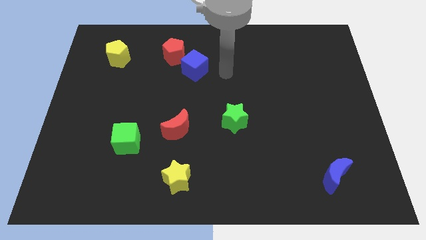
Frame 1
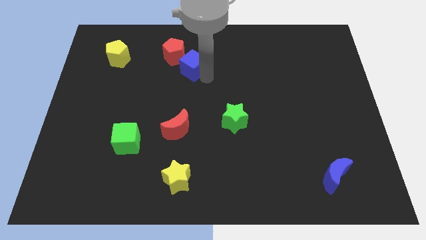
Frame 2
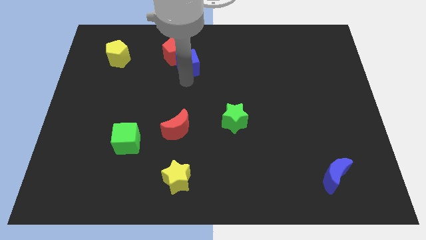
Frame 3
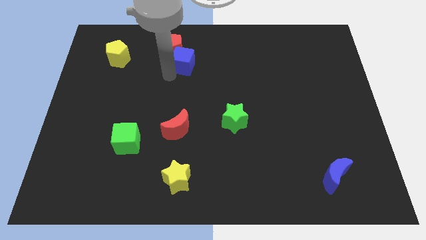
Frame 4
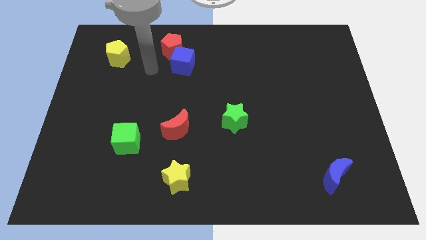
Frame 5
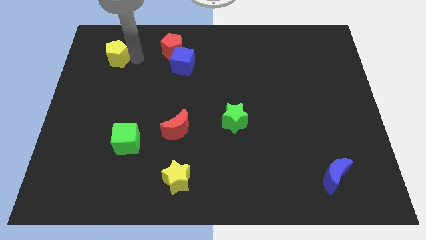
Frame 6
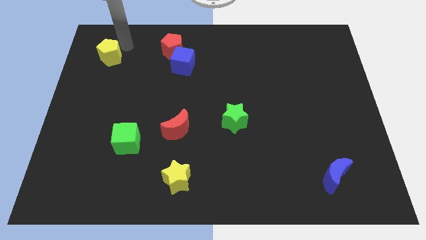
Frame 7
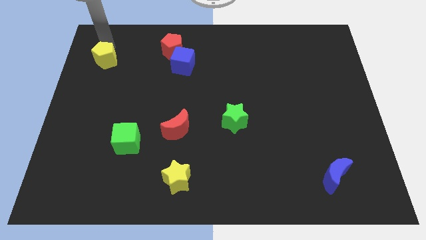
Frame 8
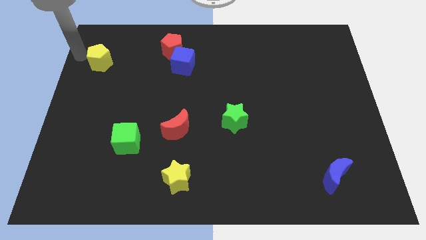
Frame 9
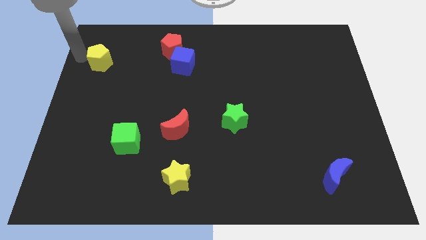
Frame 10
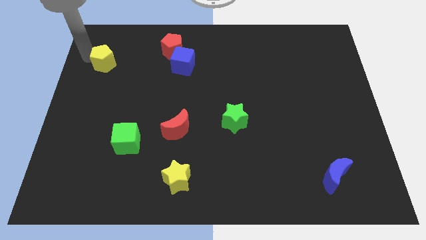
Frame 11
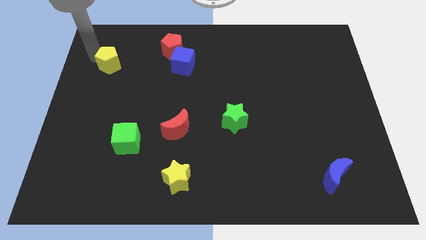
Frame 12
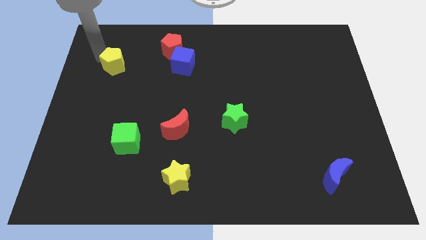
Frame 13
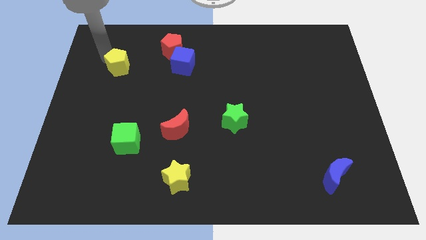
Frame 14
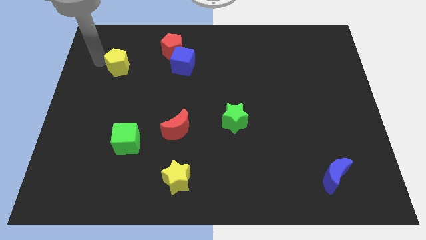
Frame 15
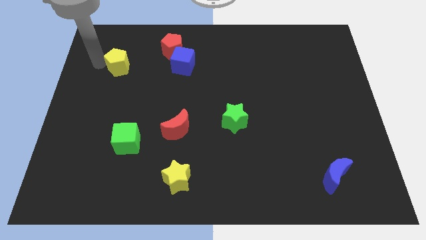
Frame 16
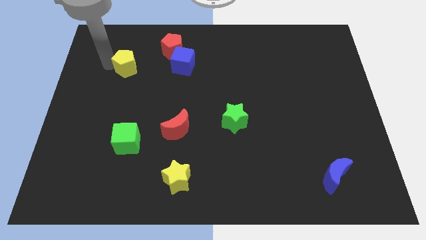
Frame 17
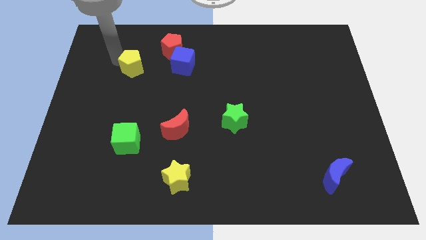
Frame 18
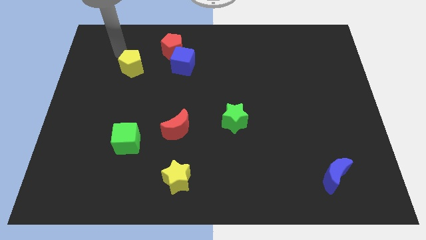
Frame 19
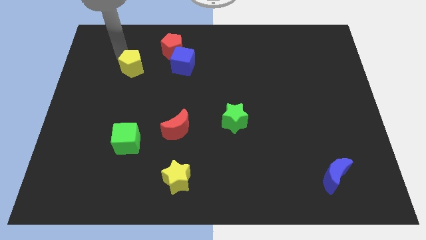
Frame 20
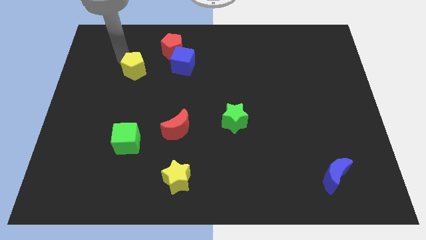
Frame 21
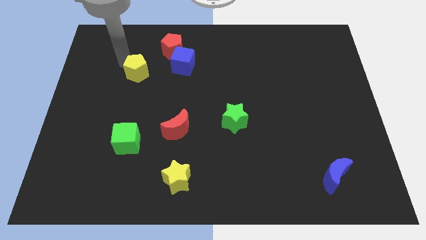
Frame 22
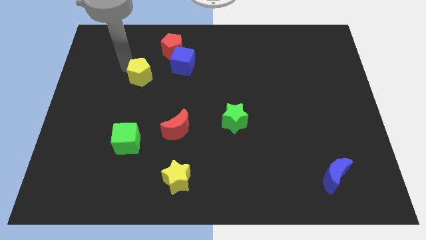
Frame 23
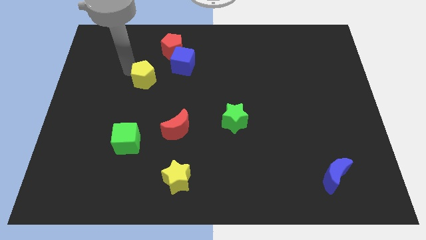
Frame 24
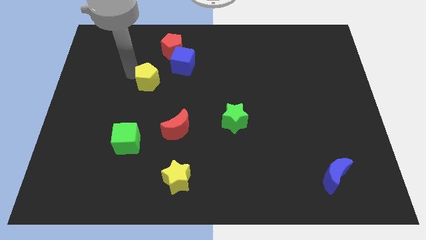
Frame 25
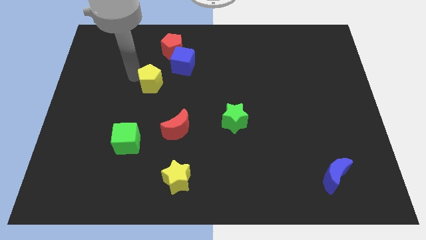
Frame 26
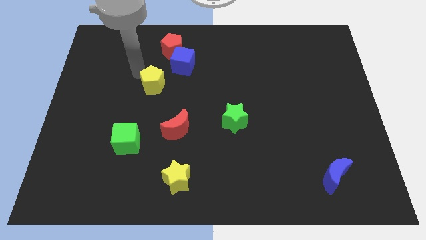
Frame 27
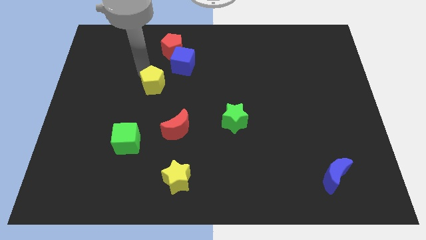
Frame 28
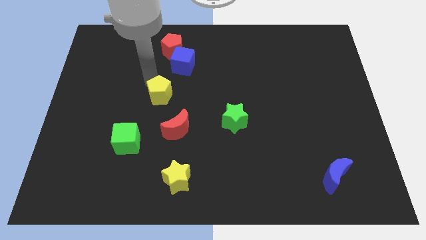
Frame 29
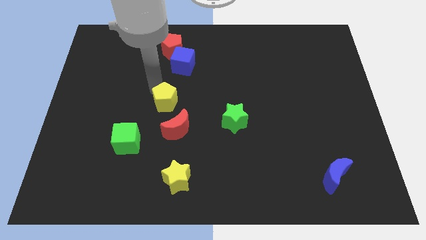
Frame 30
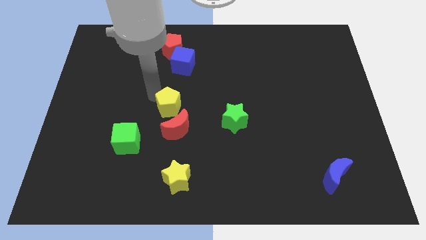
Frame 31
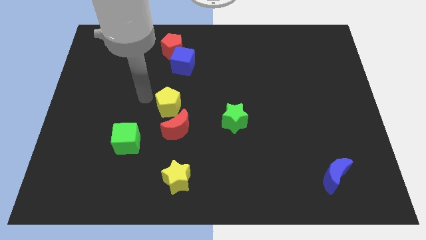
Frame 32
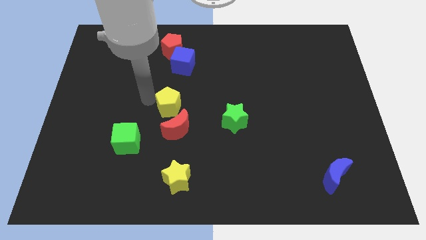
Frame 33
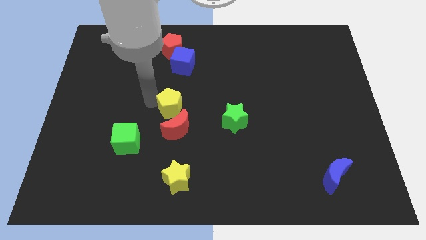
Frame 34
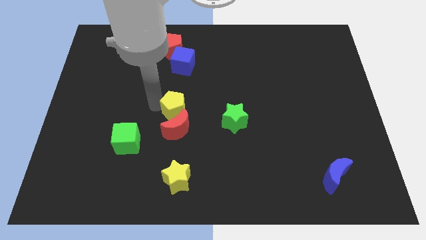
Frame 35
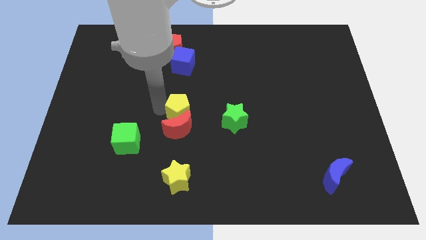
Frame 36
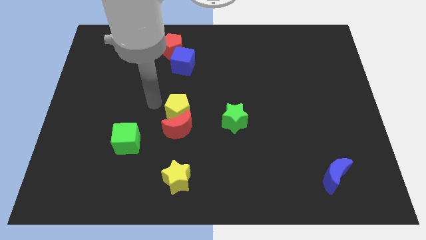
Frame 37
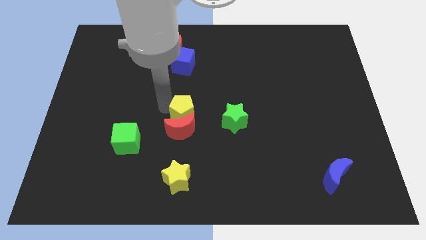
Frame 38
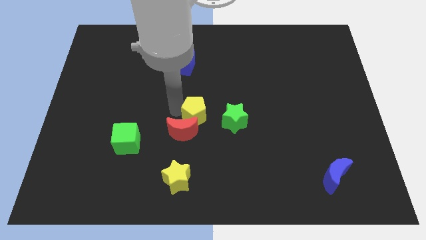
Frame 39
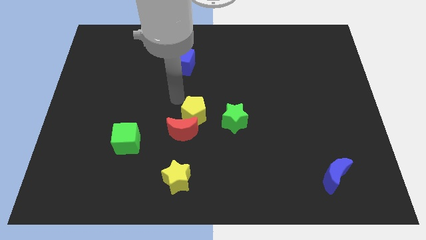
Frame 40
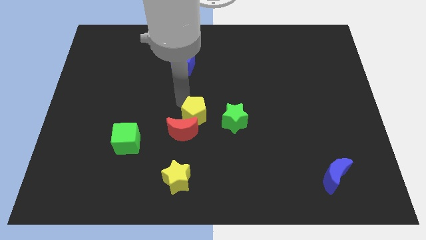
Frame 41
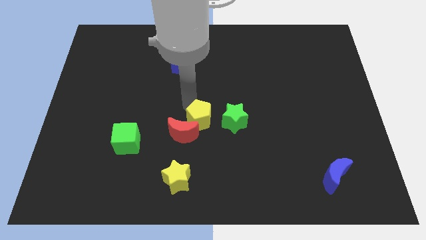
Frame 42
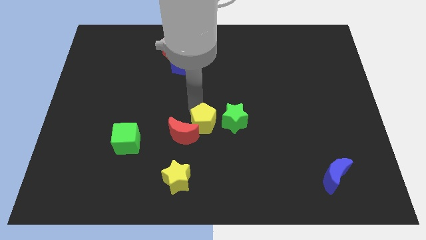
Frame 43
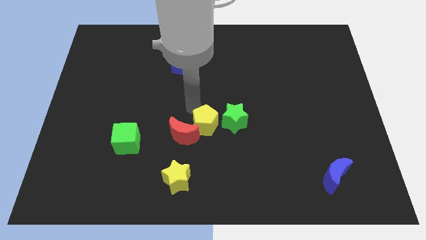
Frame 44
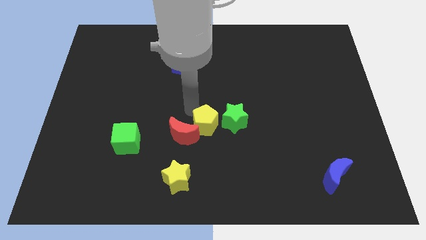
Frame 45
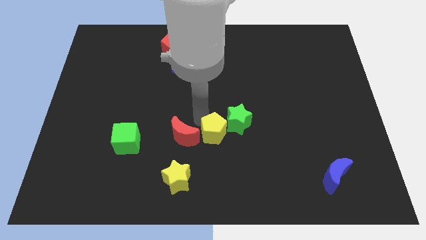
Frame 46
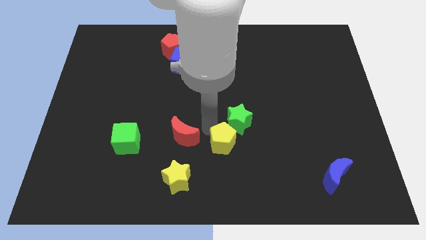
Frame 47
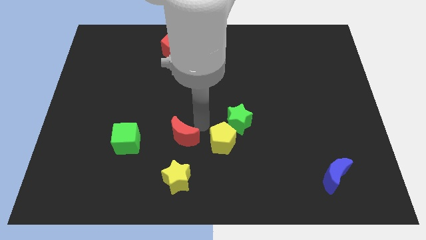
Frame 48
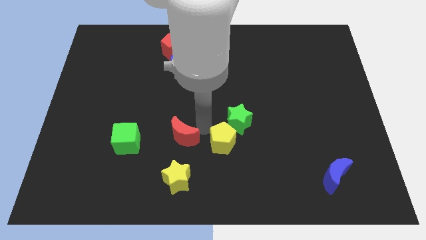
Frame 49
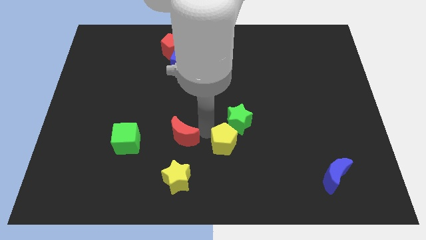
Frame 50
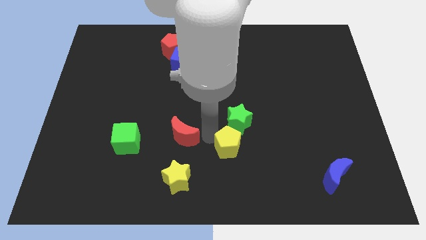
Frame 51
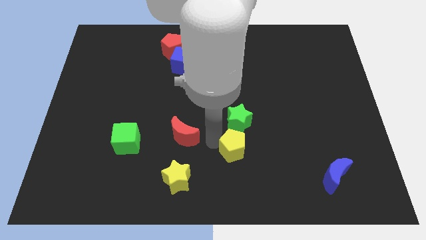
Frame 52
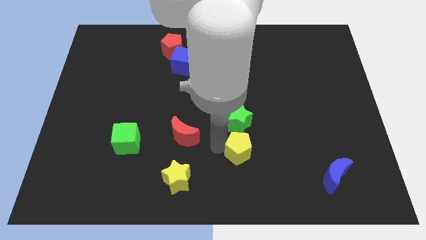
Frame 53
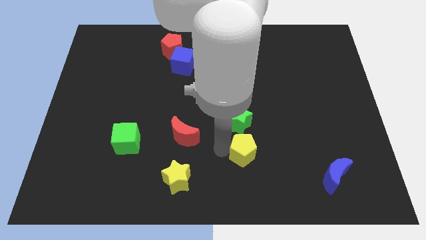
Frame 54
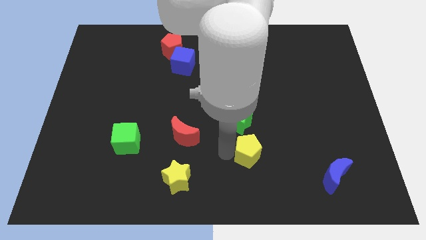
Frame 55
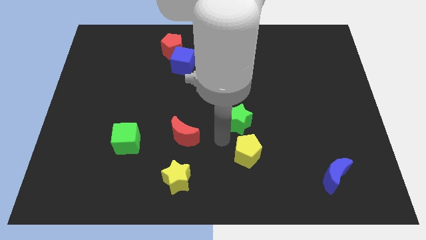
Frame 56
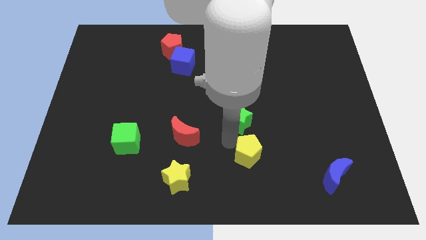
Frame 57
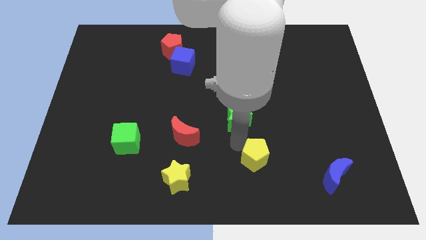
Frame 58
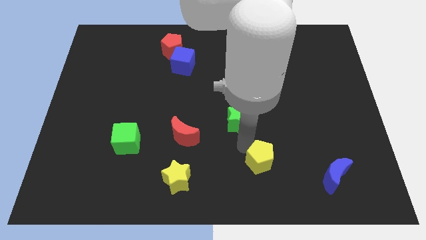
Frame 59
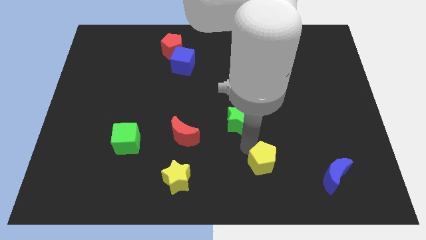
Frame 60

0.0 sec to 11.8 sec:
put the yellow pentagon to the left of the blue moon
